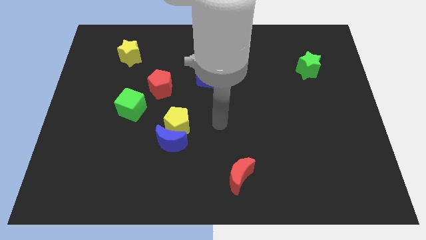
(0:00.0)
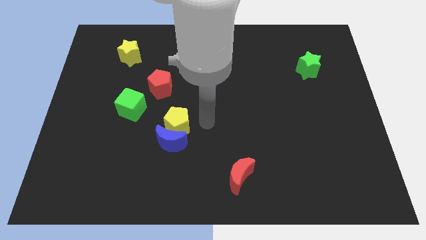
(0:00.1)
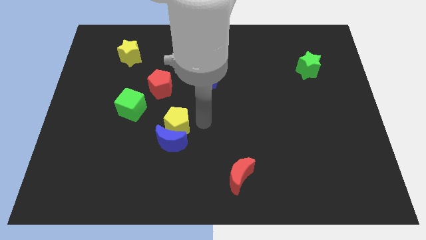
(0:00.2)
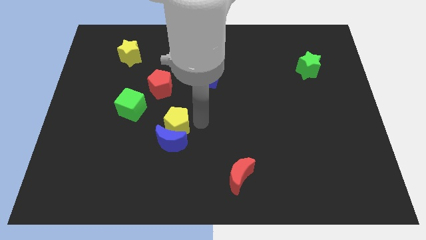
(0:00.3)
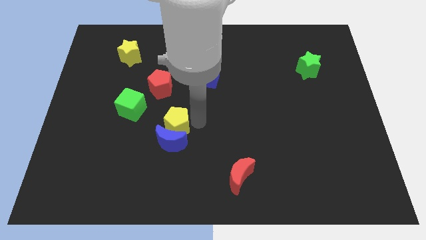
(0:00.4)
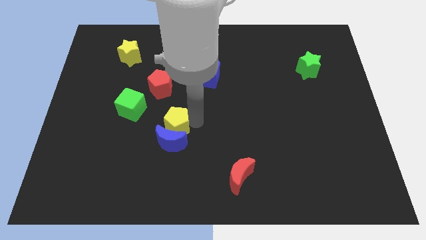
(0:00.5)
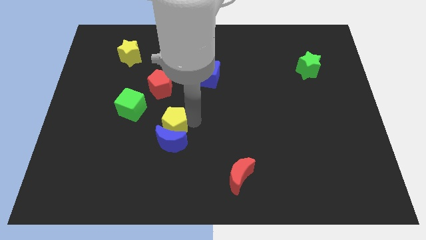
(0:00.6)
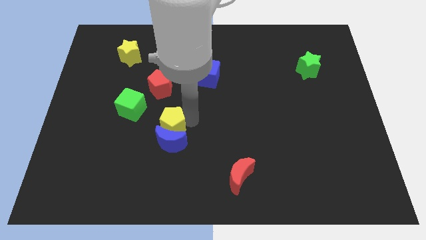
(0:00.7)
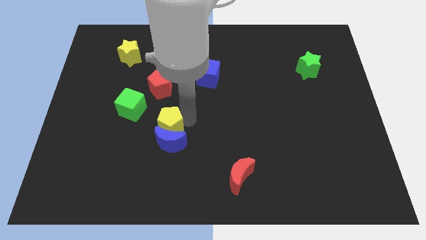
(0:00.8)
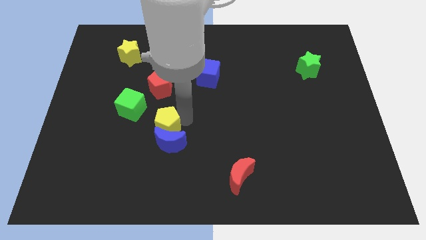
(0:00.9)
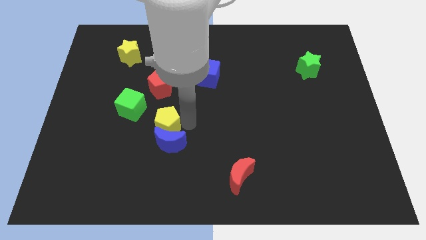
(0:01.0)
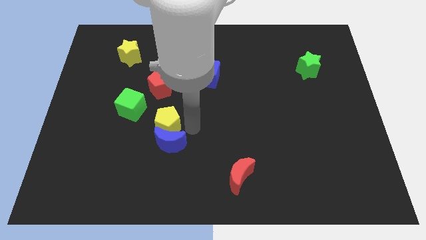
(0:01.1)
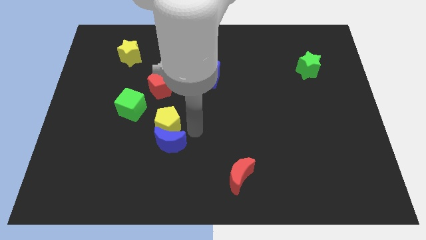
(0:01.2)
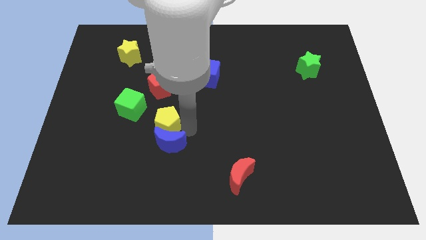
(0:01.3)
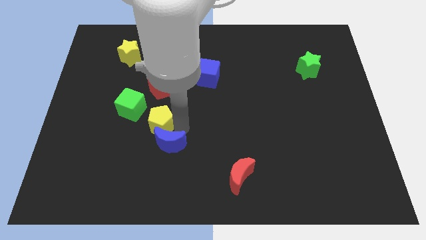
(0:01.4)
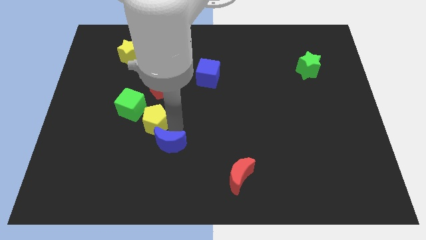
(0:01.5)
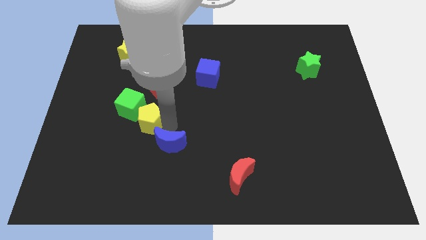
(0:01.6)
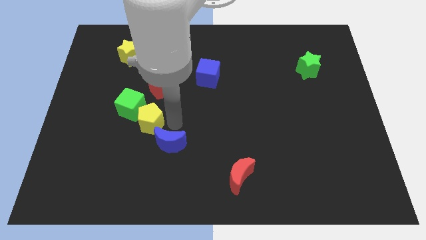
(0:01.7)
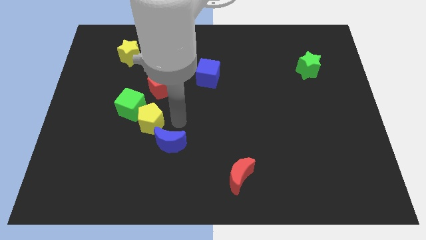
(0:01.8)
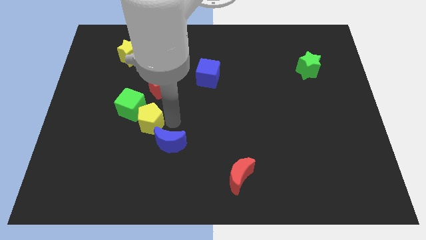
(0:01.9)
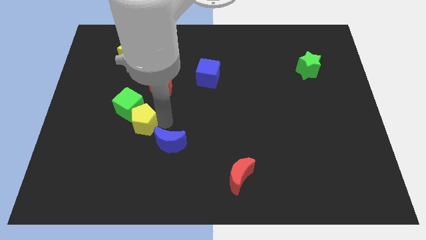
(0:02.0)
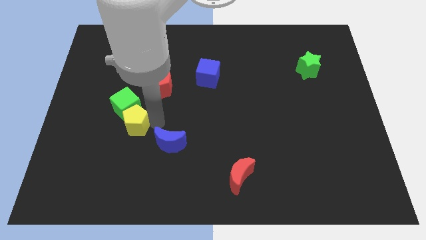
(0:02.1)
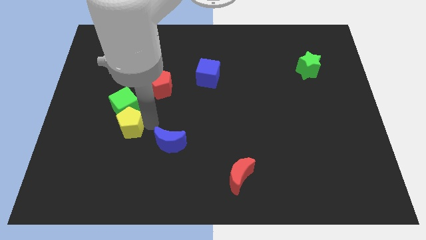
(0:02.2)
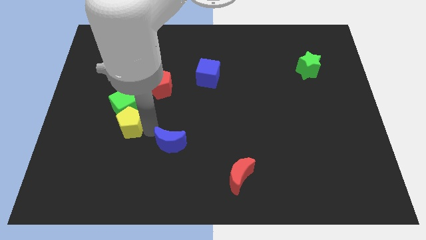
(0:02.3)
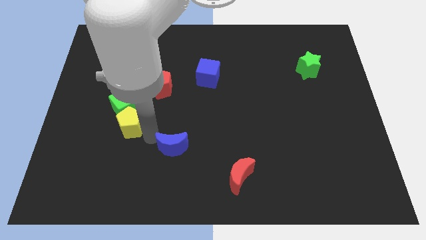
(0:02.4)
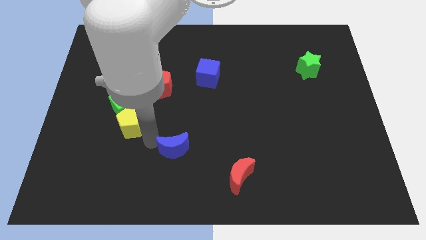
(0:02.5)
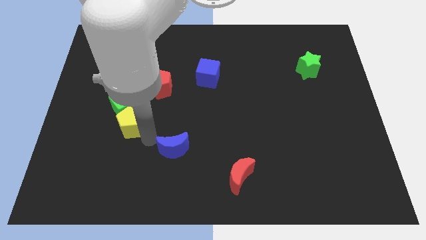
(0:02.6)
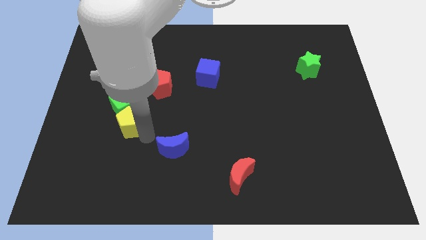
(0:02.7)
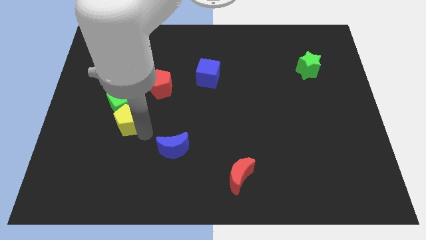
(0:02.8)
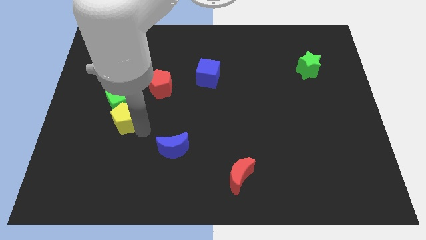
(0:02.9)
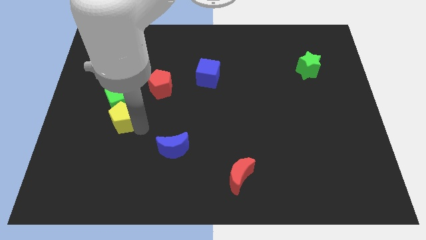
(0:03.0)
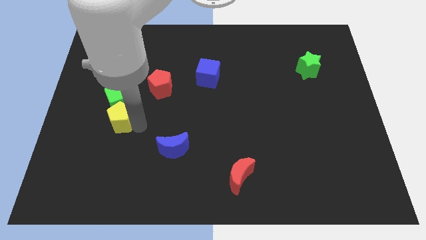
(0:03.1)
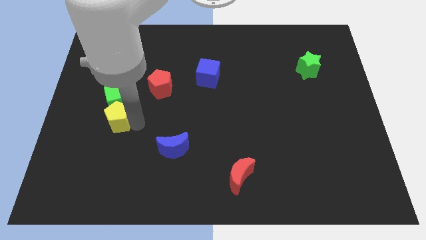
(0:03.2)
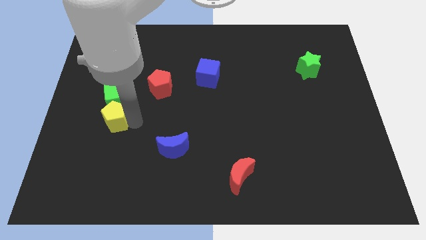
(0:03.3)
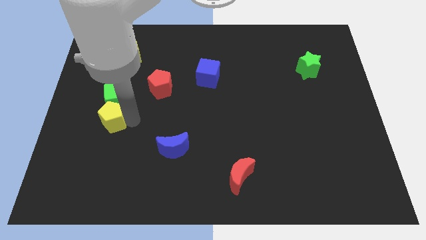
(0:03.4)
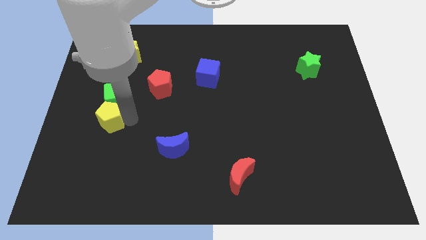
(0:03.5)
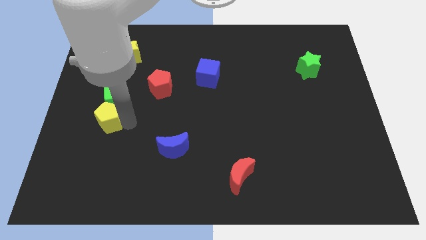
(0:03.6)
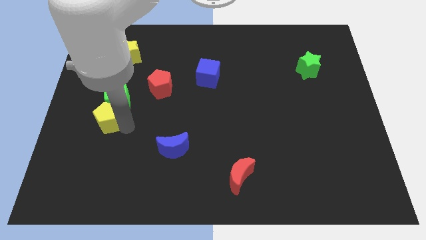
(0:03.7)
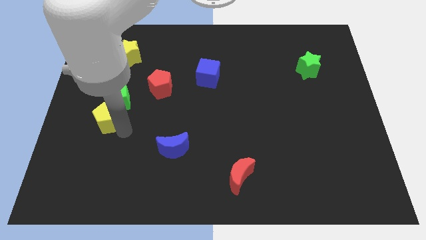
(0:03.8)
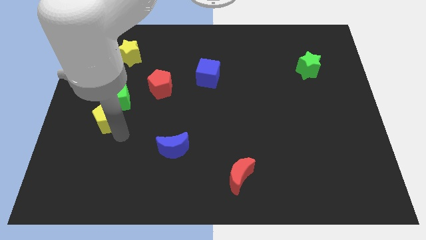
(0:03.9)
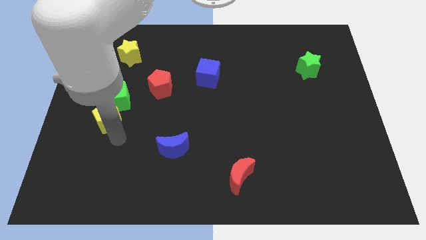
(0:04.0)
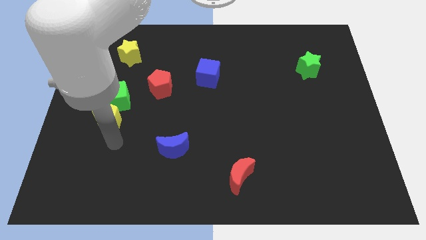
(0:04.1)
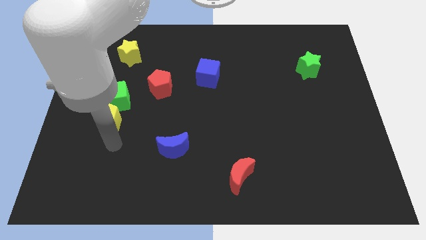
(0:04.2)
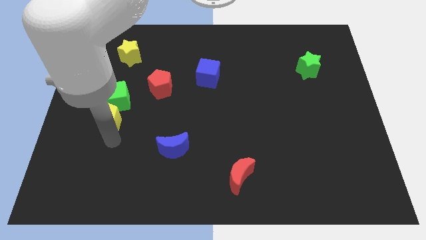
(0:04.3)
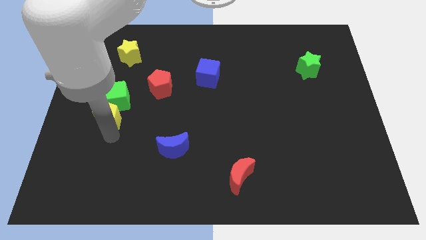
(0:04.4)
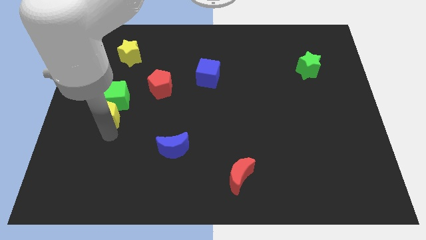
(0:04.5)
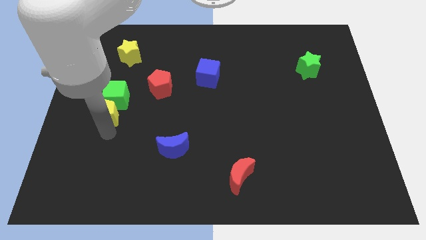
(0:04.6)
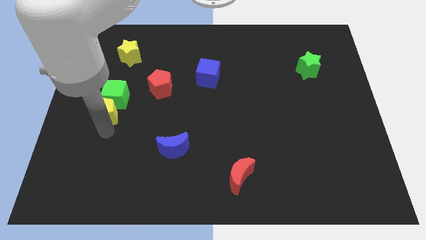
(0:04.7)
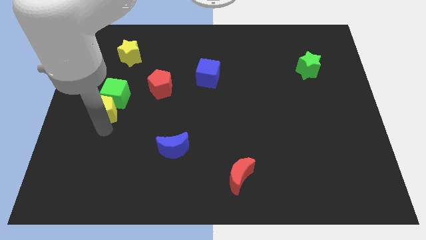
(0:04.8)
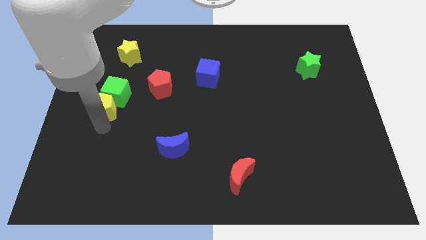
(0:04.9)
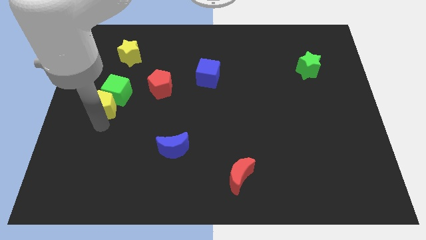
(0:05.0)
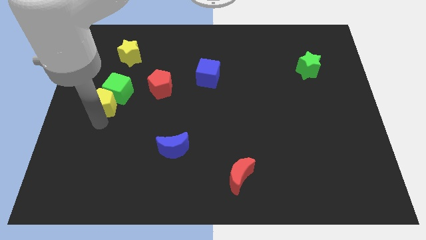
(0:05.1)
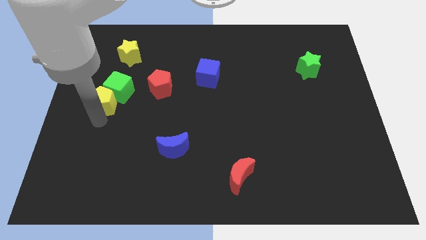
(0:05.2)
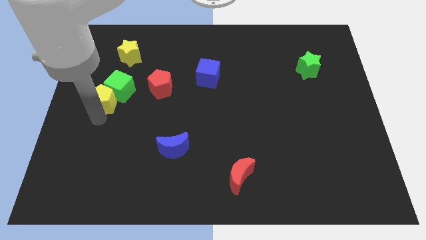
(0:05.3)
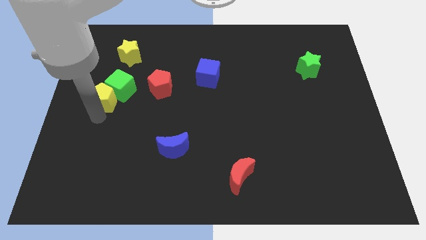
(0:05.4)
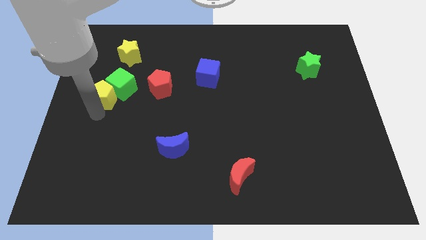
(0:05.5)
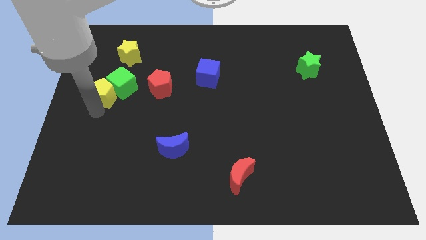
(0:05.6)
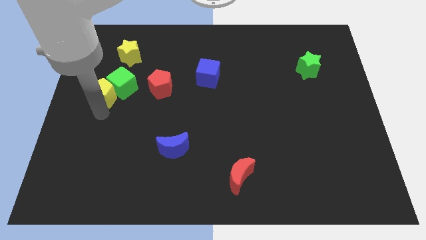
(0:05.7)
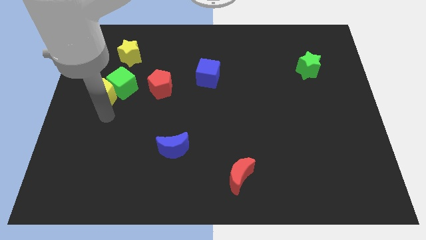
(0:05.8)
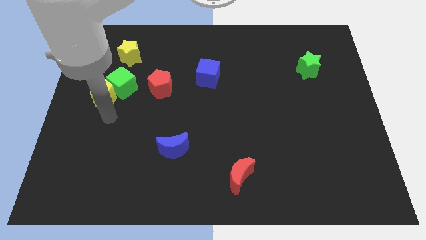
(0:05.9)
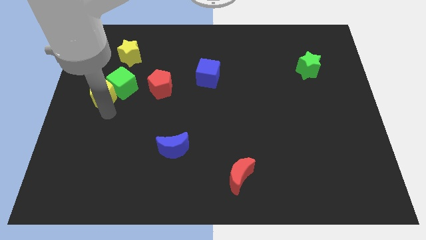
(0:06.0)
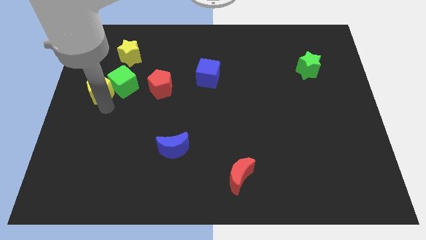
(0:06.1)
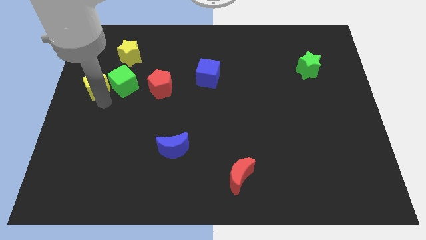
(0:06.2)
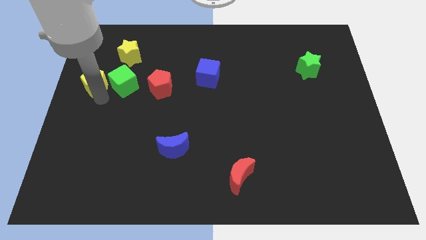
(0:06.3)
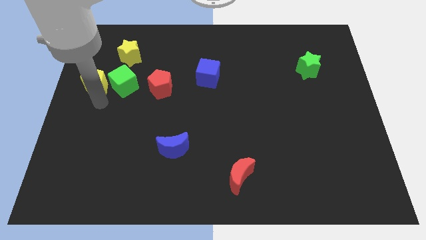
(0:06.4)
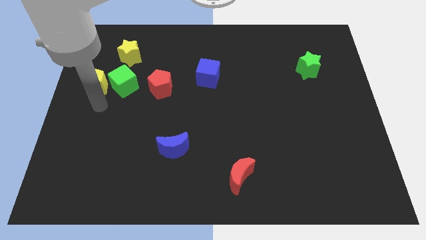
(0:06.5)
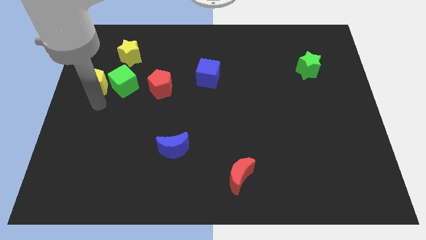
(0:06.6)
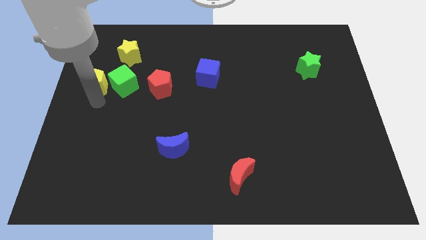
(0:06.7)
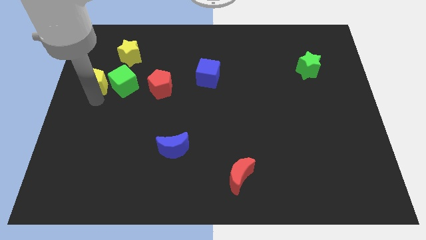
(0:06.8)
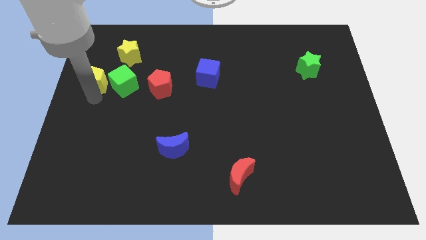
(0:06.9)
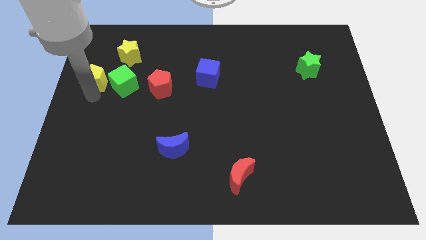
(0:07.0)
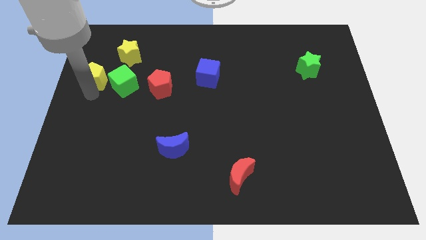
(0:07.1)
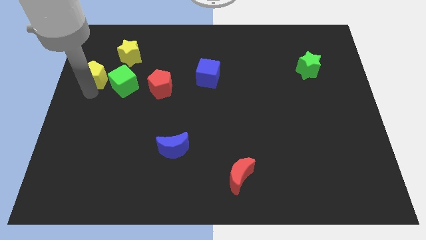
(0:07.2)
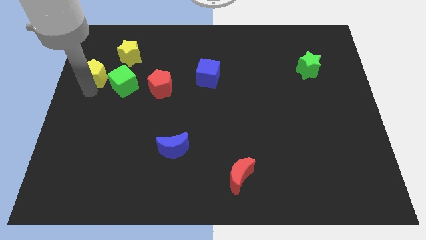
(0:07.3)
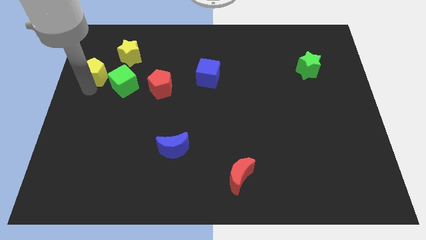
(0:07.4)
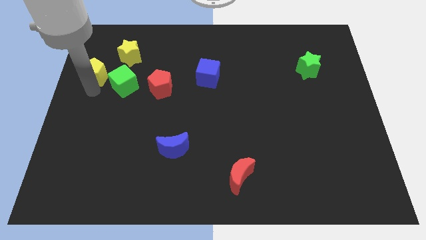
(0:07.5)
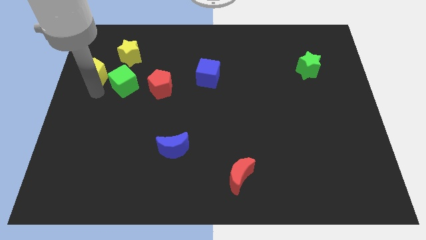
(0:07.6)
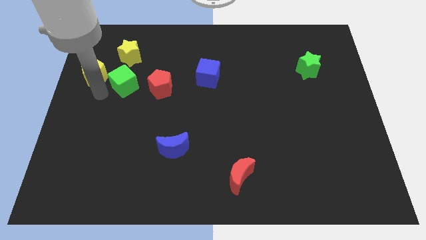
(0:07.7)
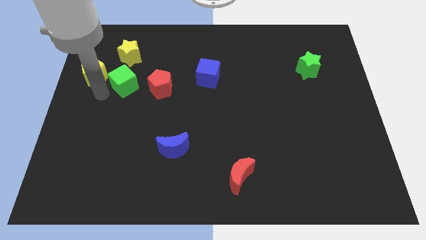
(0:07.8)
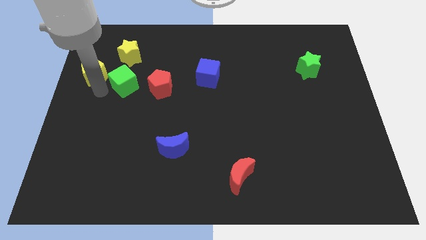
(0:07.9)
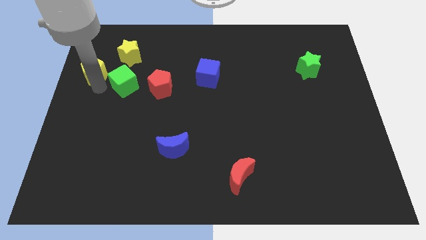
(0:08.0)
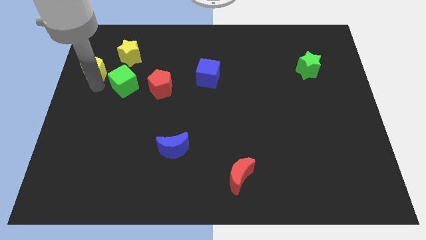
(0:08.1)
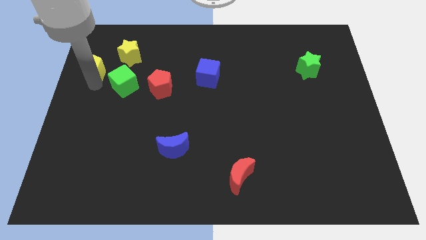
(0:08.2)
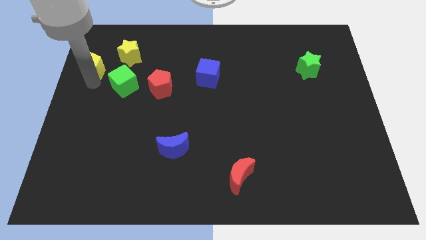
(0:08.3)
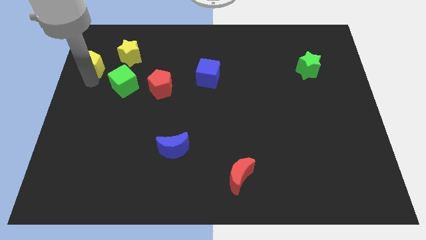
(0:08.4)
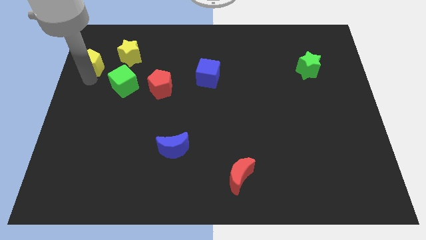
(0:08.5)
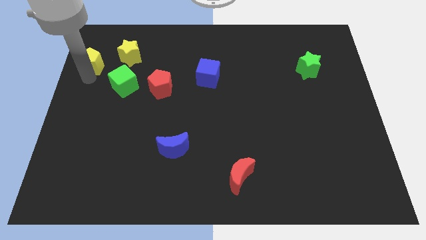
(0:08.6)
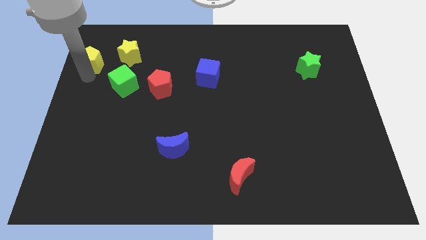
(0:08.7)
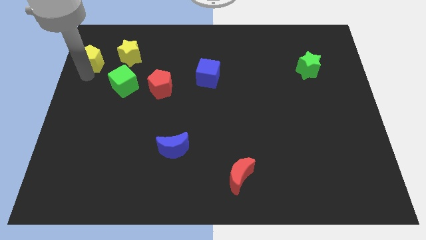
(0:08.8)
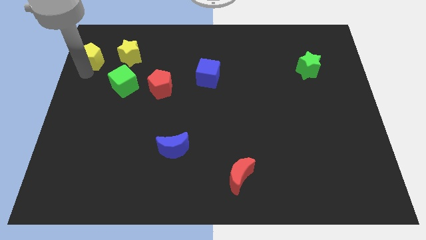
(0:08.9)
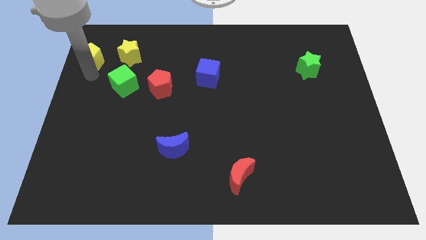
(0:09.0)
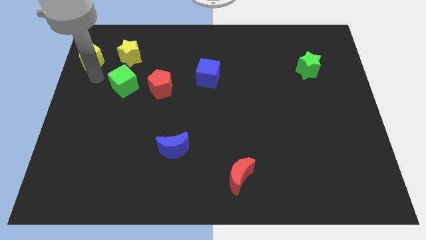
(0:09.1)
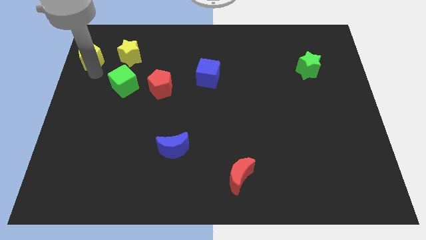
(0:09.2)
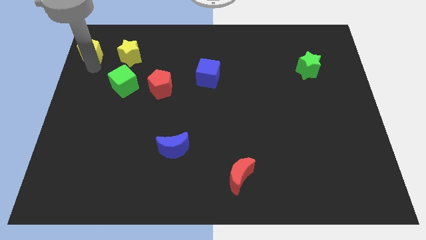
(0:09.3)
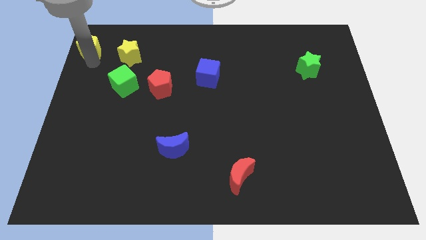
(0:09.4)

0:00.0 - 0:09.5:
slide the yellow pentagon to the top left
